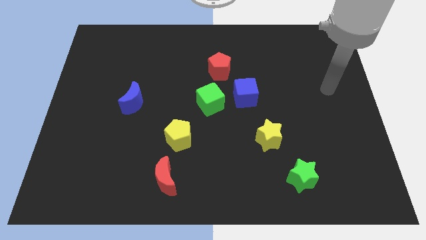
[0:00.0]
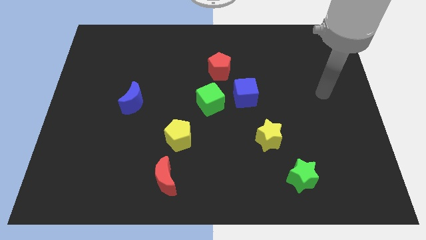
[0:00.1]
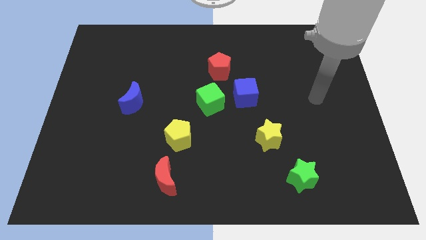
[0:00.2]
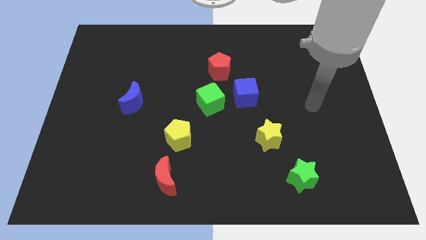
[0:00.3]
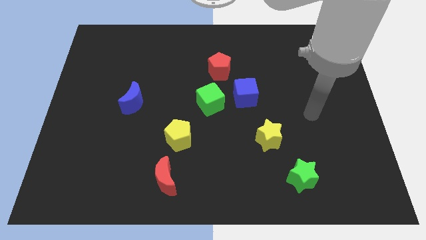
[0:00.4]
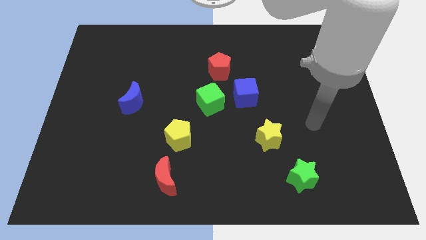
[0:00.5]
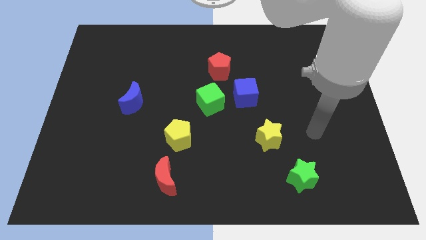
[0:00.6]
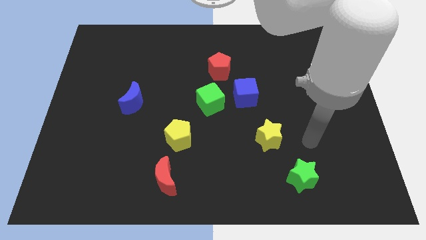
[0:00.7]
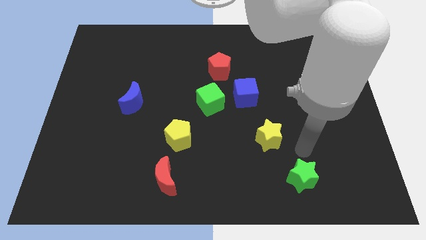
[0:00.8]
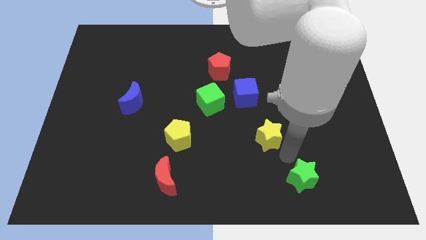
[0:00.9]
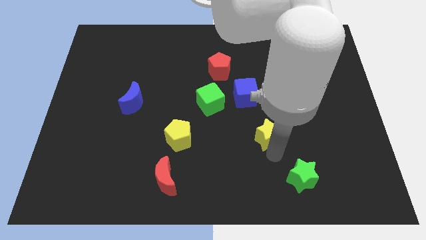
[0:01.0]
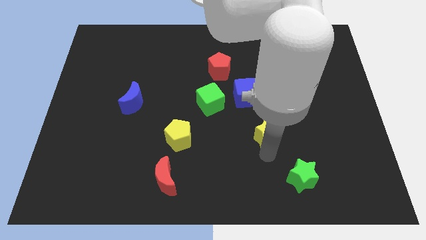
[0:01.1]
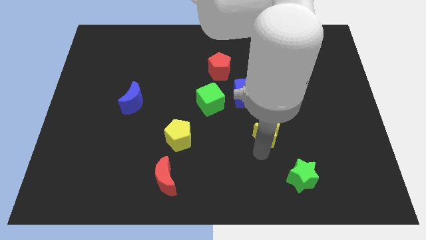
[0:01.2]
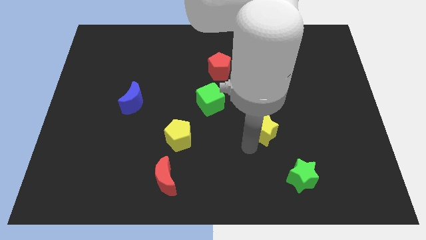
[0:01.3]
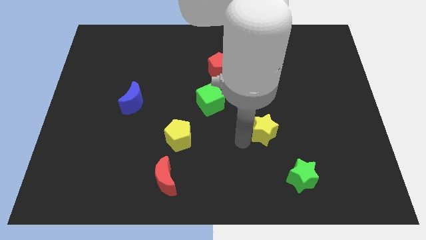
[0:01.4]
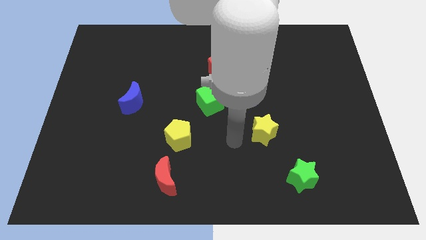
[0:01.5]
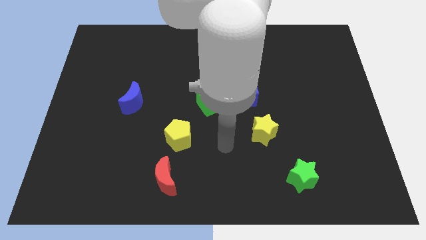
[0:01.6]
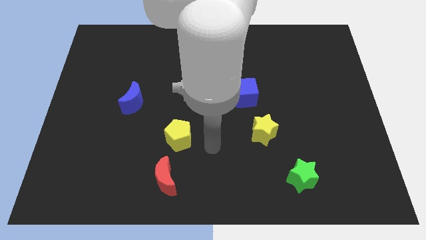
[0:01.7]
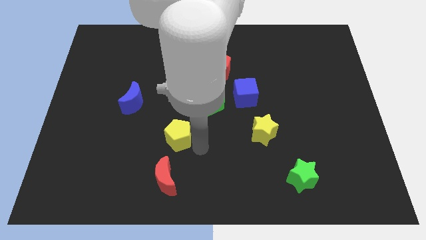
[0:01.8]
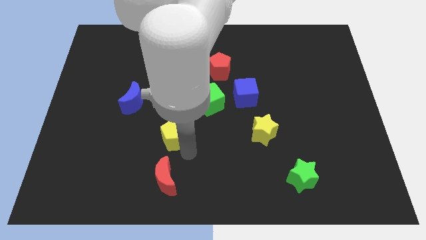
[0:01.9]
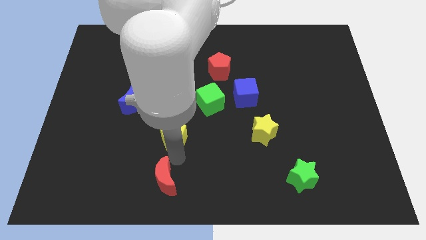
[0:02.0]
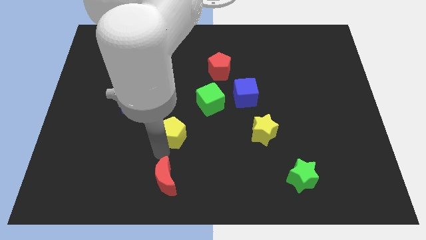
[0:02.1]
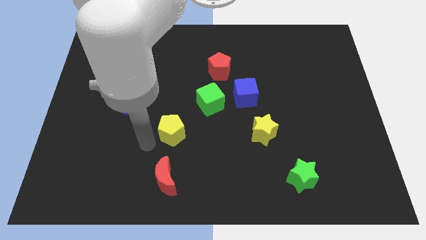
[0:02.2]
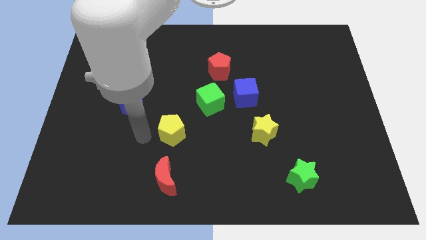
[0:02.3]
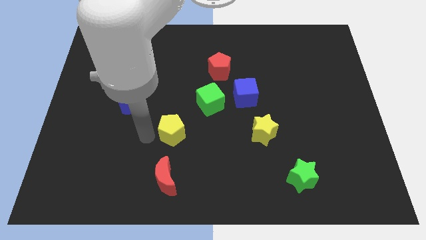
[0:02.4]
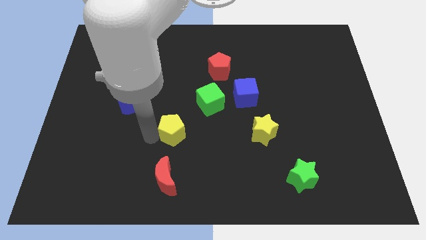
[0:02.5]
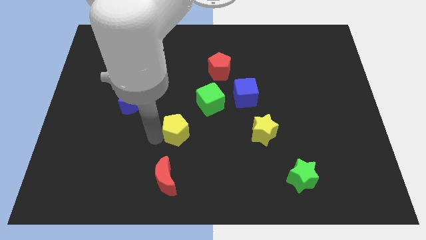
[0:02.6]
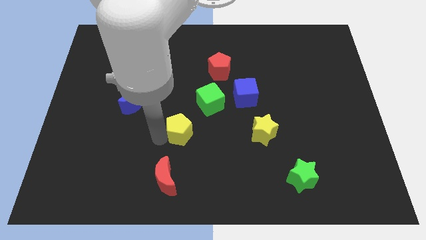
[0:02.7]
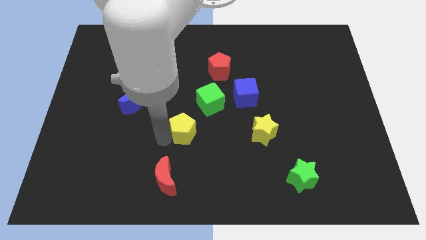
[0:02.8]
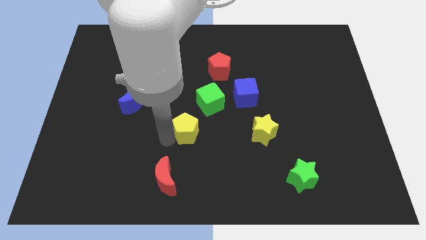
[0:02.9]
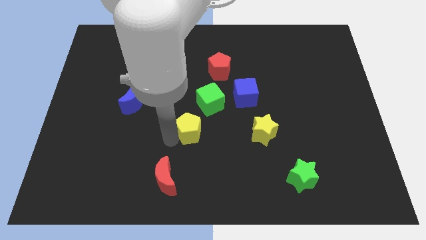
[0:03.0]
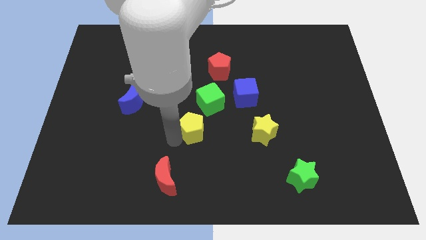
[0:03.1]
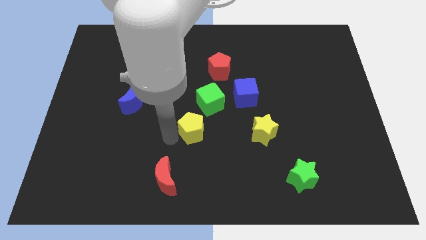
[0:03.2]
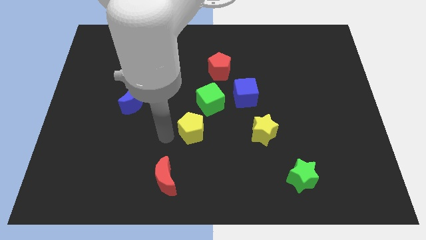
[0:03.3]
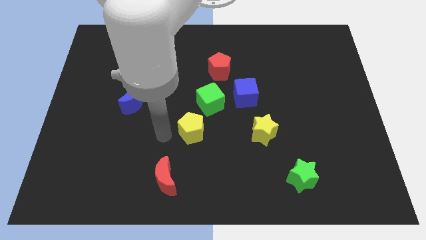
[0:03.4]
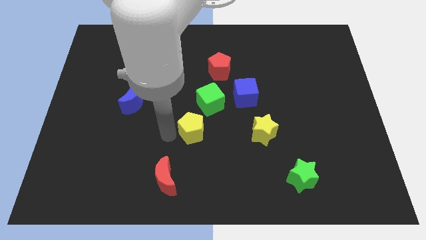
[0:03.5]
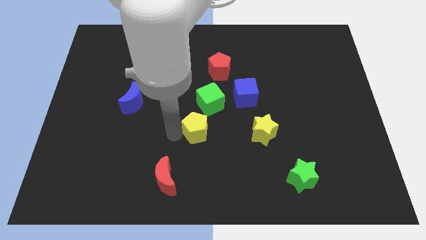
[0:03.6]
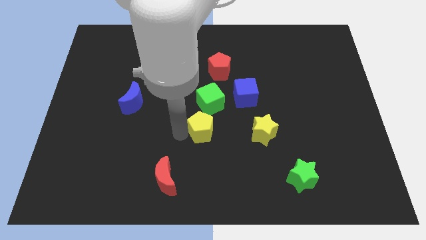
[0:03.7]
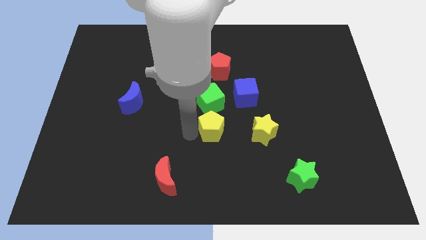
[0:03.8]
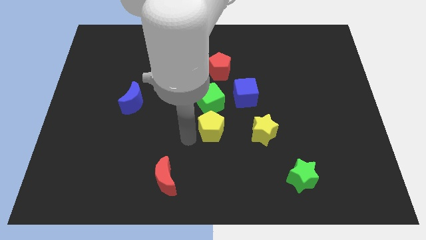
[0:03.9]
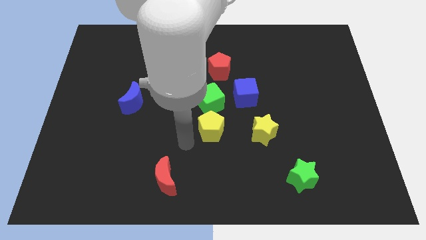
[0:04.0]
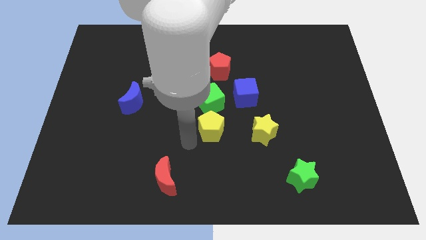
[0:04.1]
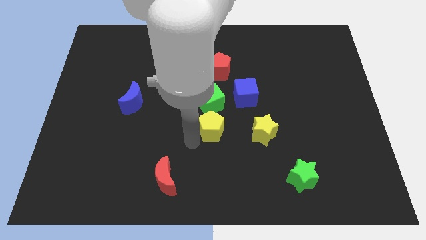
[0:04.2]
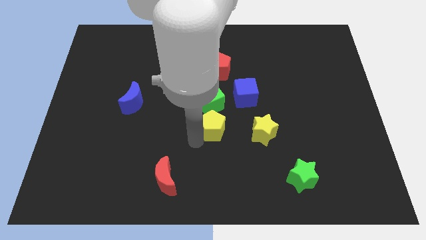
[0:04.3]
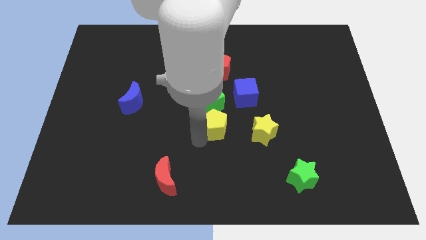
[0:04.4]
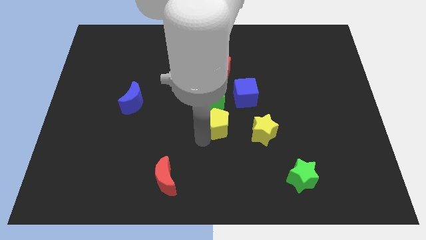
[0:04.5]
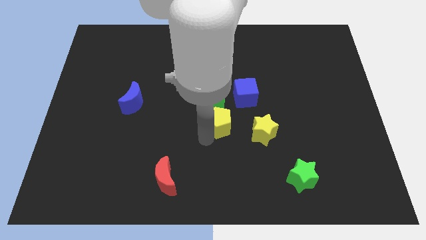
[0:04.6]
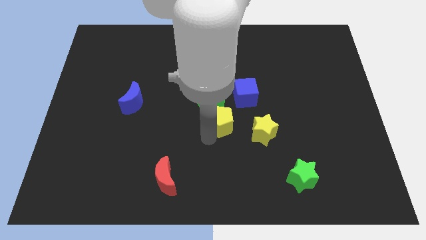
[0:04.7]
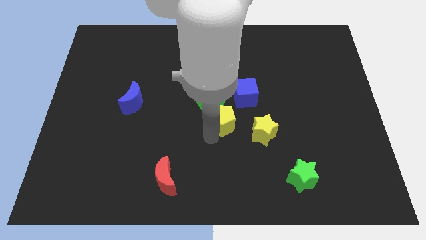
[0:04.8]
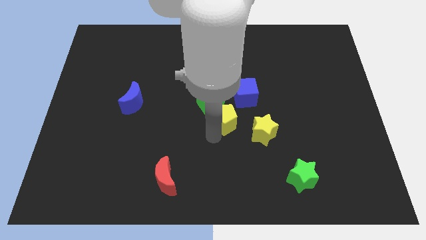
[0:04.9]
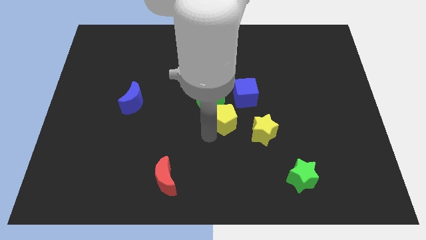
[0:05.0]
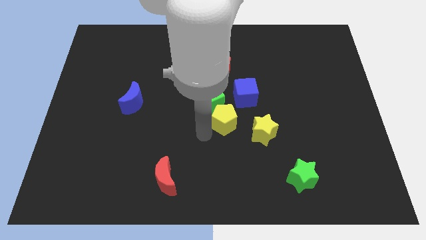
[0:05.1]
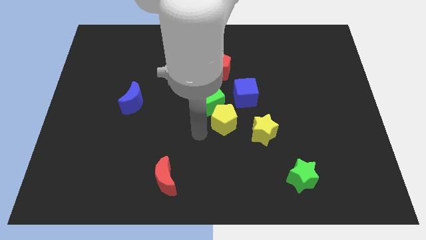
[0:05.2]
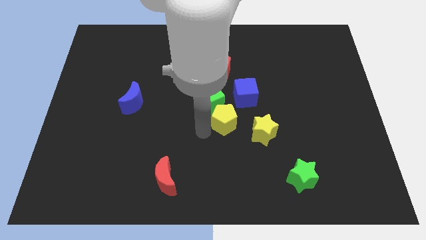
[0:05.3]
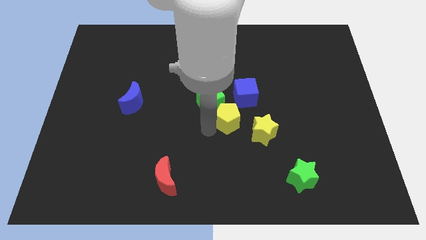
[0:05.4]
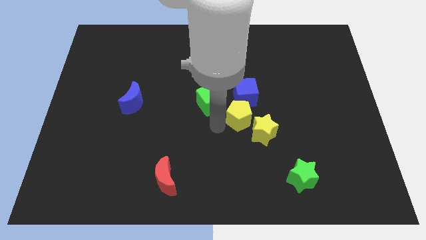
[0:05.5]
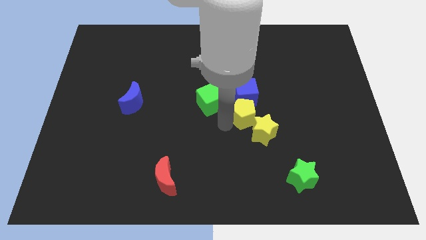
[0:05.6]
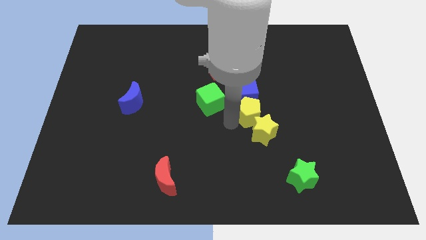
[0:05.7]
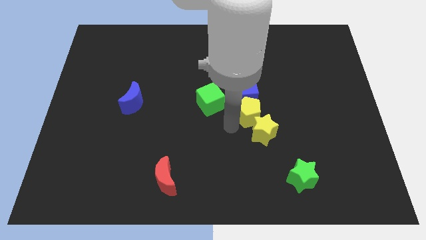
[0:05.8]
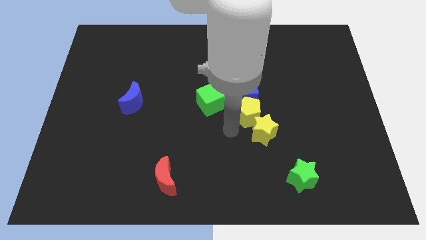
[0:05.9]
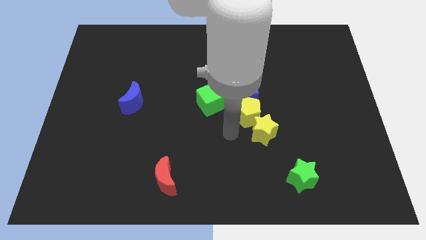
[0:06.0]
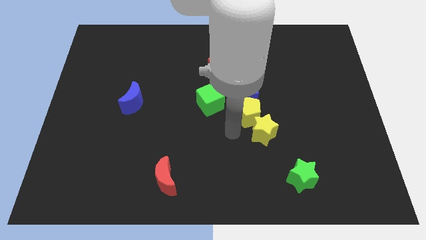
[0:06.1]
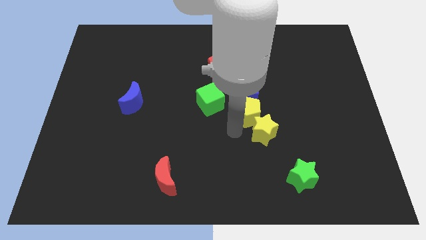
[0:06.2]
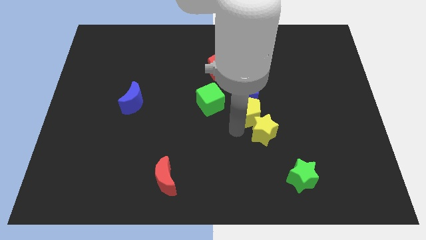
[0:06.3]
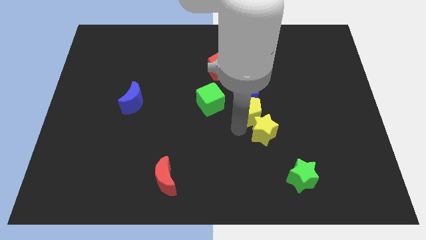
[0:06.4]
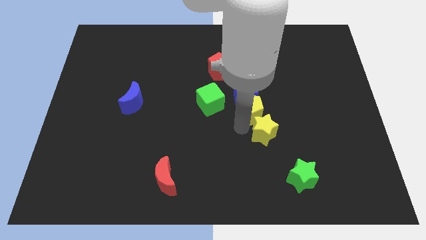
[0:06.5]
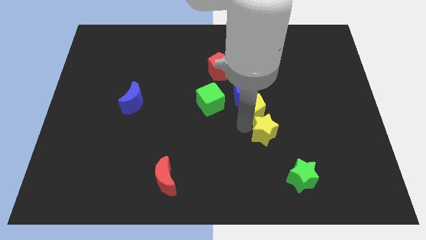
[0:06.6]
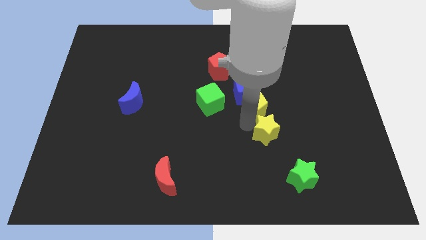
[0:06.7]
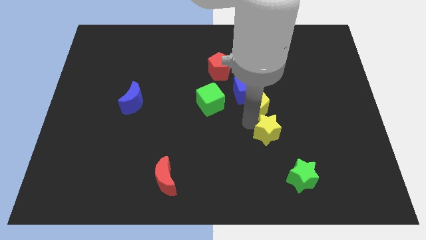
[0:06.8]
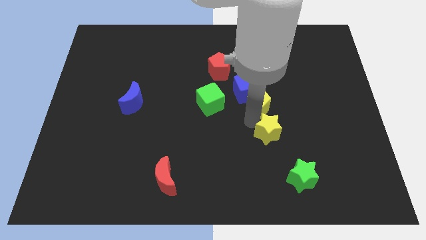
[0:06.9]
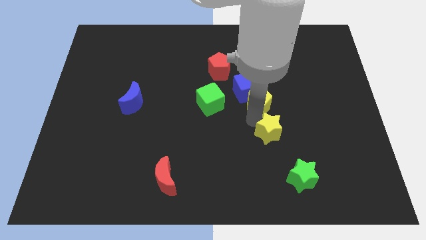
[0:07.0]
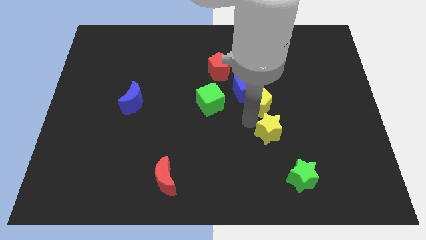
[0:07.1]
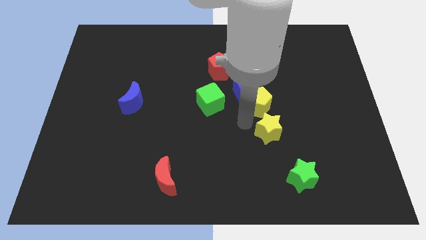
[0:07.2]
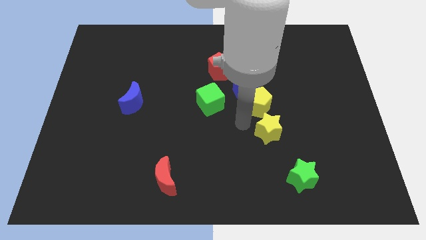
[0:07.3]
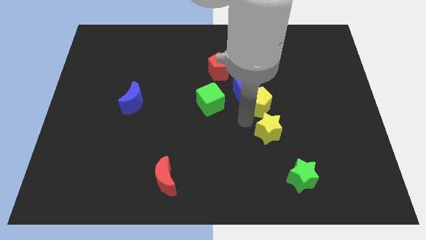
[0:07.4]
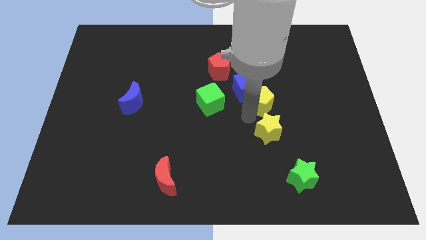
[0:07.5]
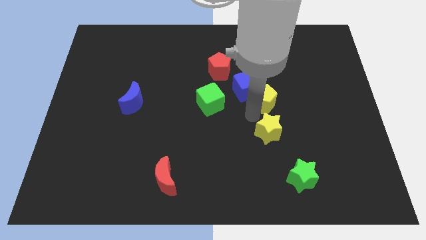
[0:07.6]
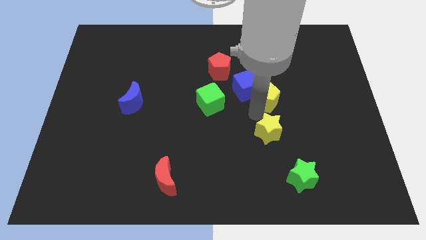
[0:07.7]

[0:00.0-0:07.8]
slide the yellow pentagon upwards and then to the right

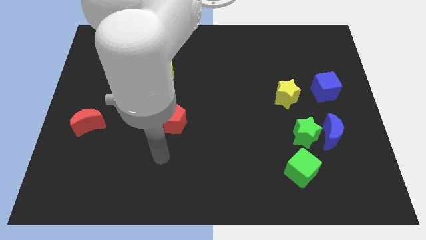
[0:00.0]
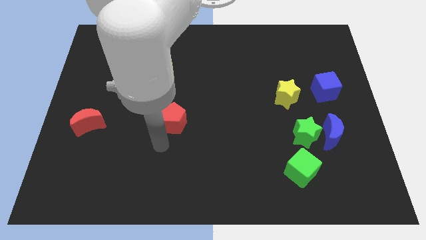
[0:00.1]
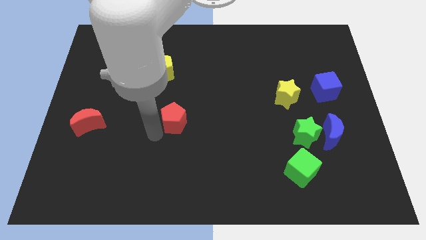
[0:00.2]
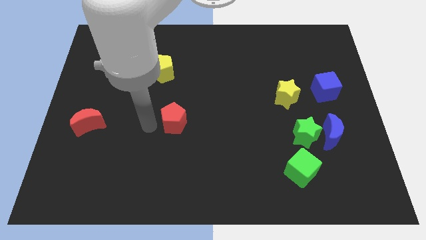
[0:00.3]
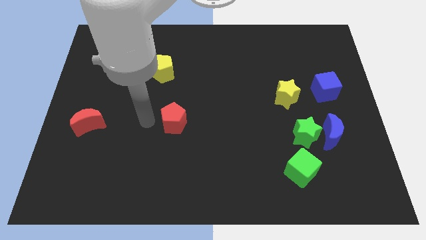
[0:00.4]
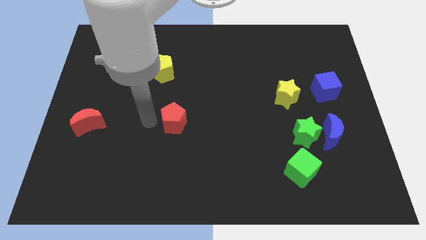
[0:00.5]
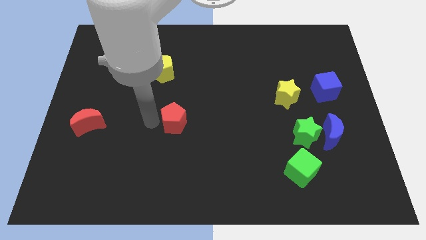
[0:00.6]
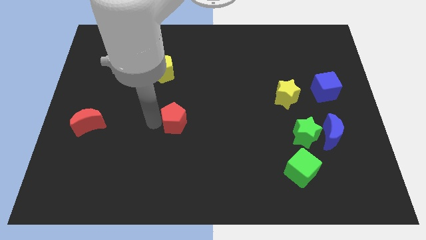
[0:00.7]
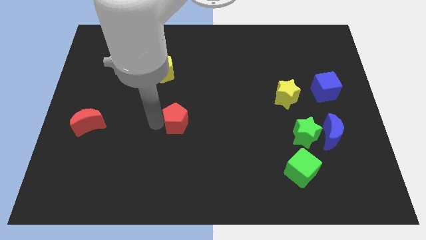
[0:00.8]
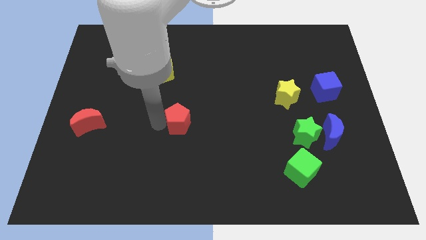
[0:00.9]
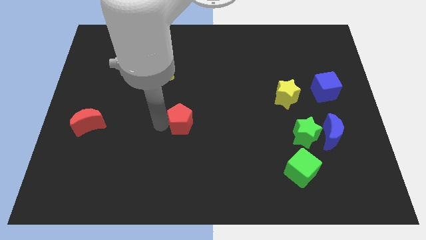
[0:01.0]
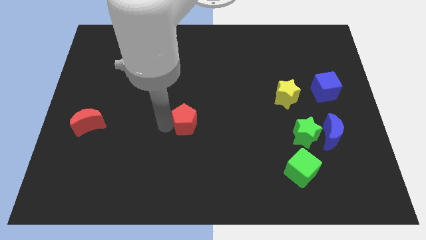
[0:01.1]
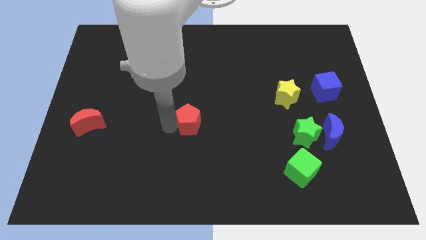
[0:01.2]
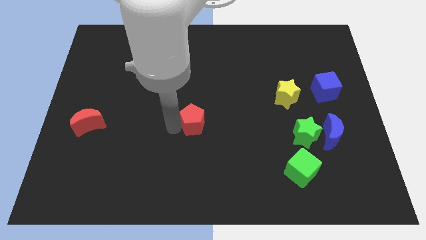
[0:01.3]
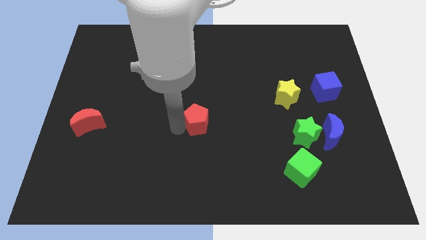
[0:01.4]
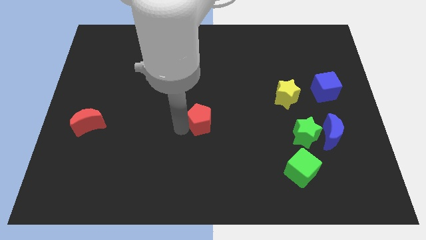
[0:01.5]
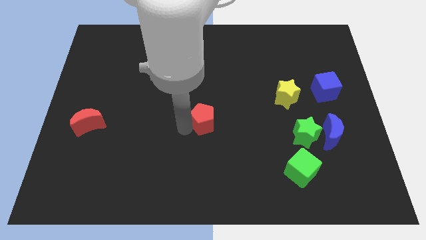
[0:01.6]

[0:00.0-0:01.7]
move the red pentagon right a little bit
